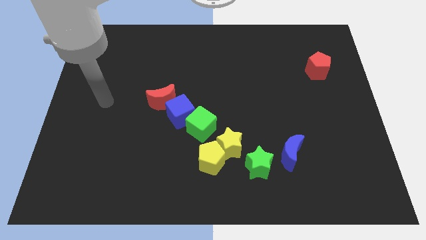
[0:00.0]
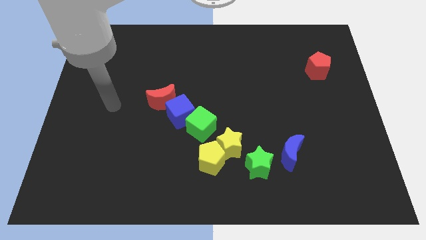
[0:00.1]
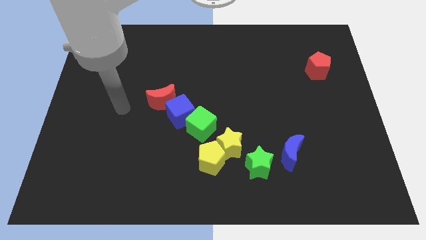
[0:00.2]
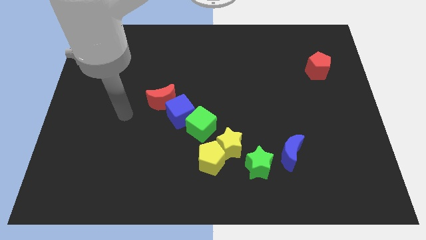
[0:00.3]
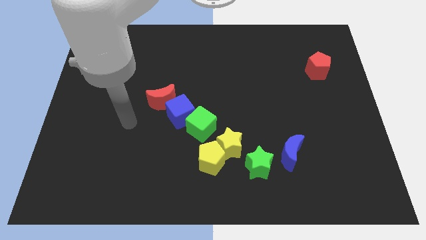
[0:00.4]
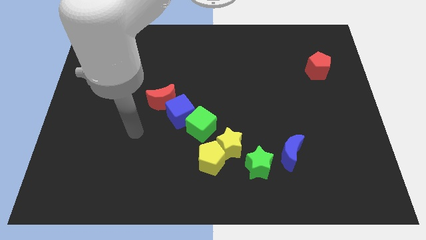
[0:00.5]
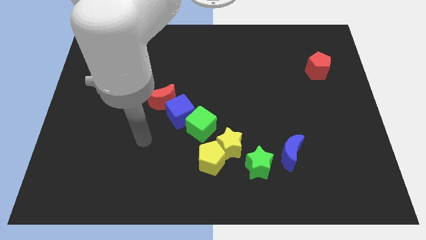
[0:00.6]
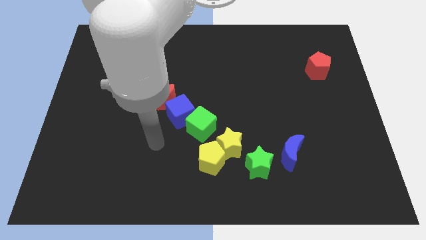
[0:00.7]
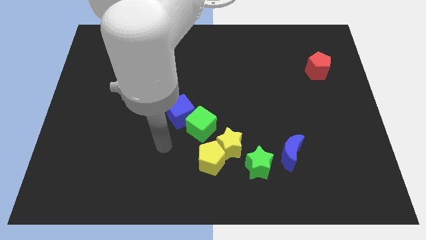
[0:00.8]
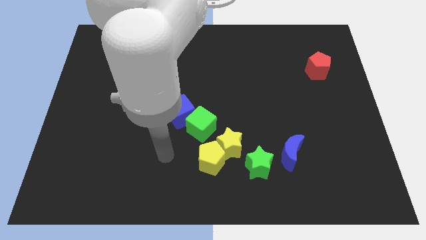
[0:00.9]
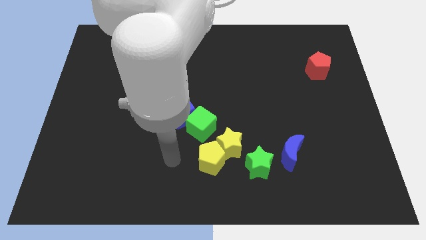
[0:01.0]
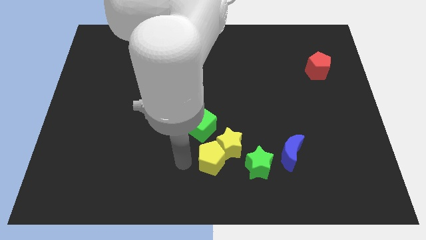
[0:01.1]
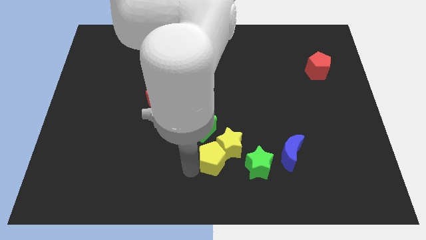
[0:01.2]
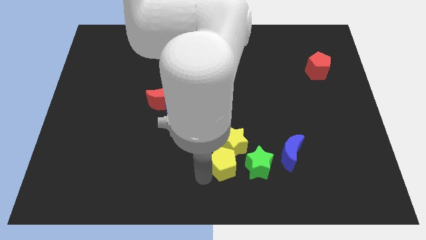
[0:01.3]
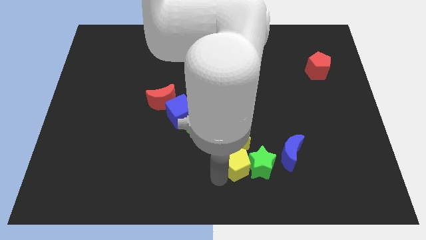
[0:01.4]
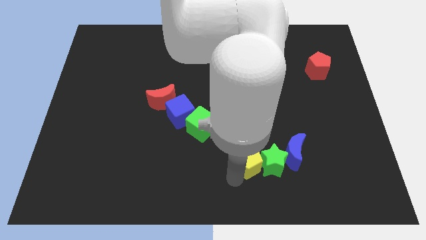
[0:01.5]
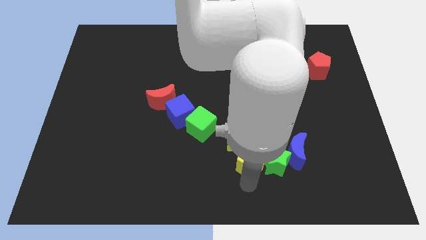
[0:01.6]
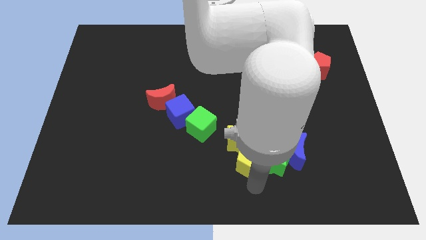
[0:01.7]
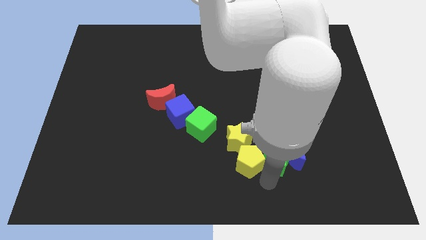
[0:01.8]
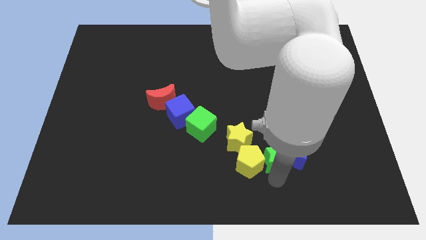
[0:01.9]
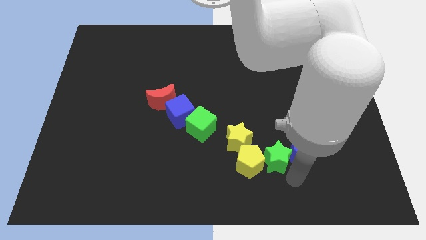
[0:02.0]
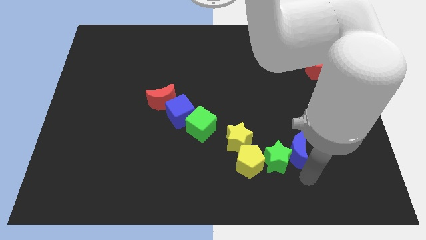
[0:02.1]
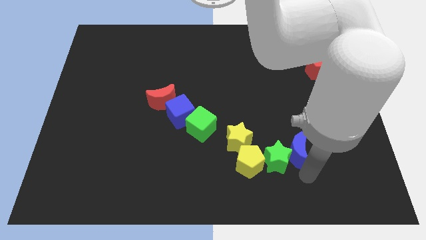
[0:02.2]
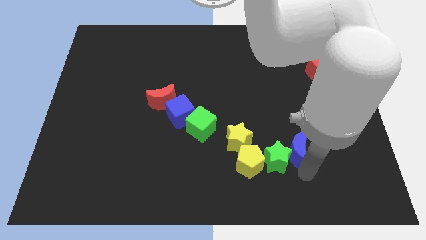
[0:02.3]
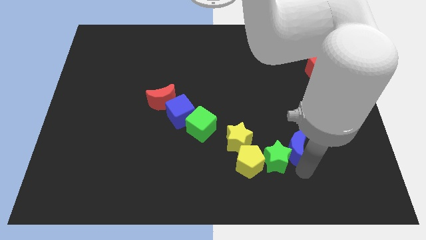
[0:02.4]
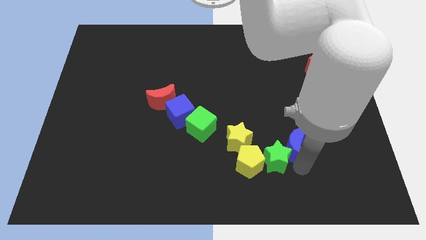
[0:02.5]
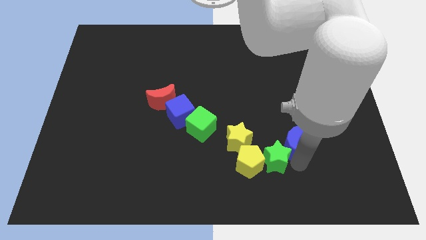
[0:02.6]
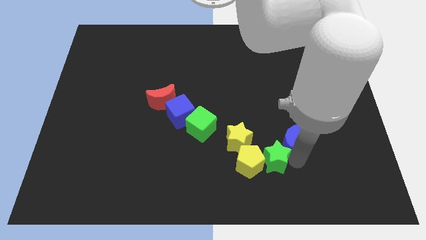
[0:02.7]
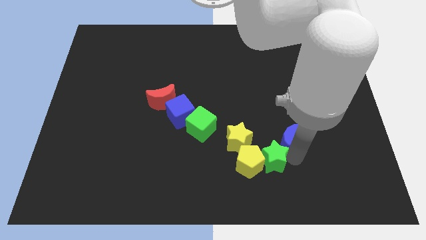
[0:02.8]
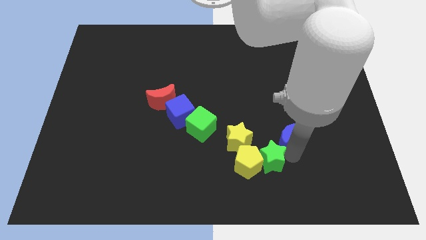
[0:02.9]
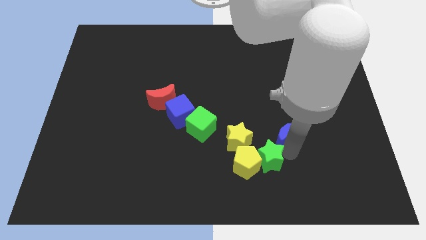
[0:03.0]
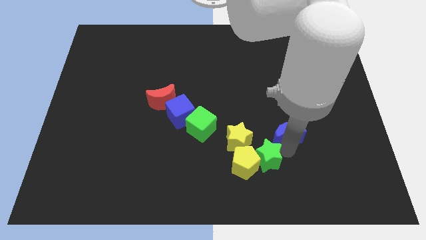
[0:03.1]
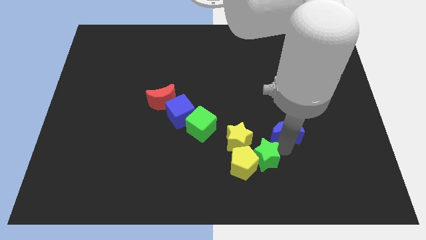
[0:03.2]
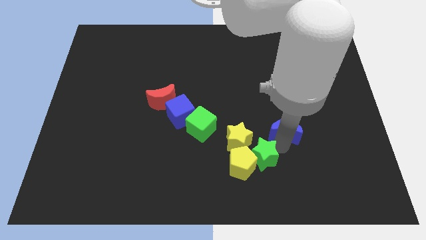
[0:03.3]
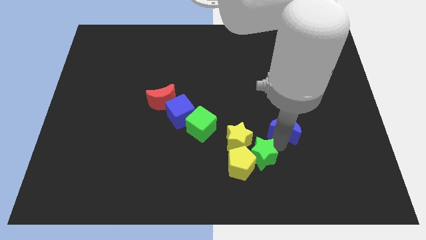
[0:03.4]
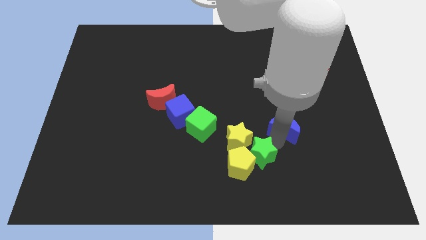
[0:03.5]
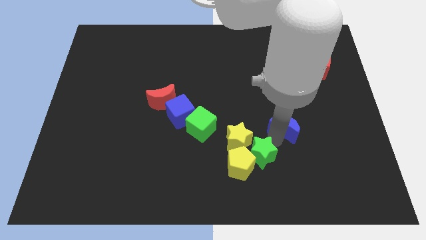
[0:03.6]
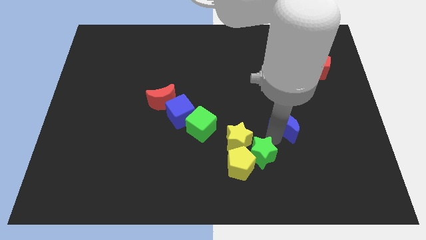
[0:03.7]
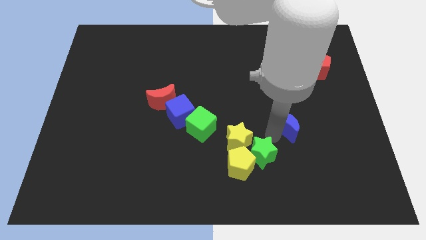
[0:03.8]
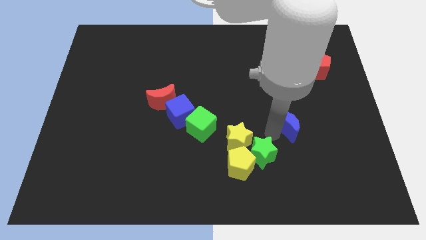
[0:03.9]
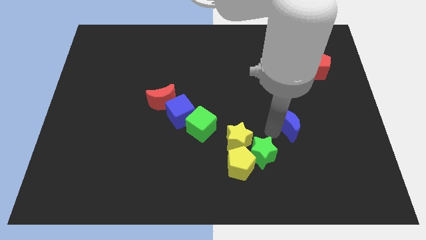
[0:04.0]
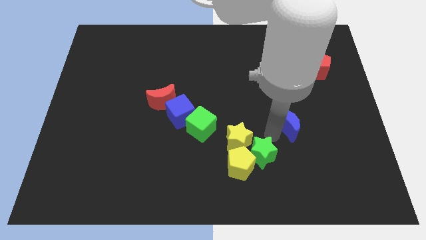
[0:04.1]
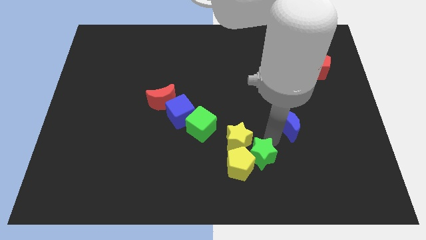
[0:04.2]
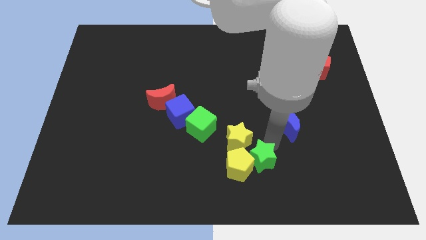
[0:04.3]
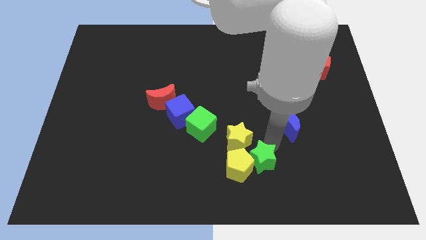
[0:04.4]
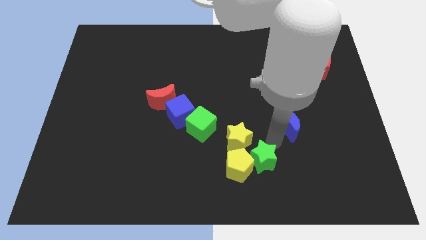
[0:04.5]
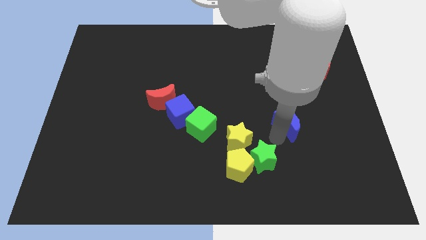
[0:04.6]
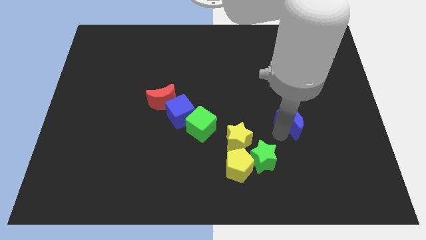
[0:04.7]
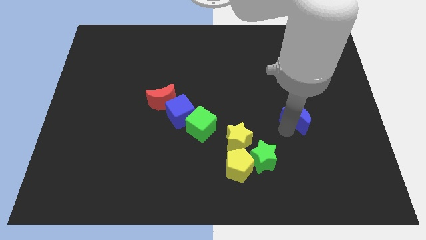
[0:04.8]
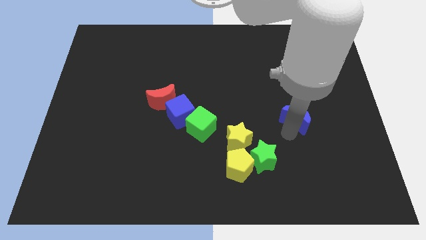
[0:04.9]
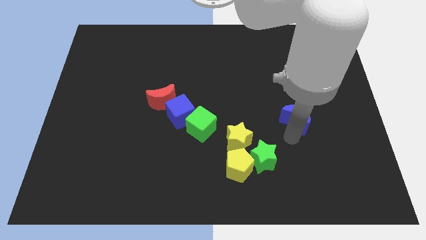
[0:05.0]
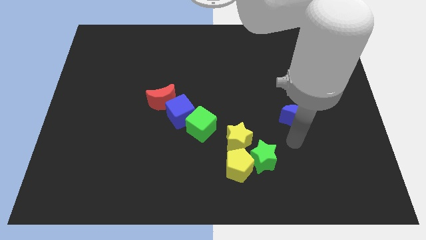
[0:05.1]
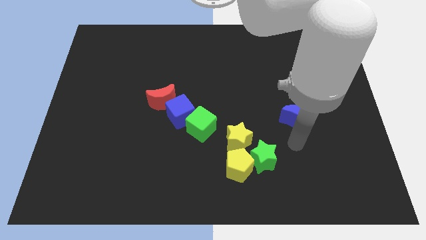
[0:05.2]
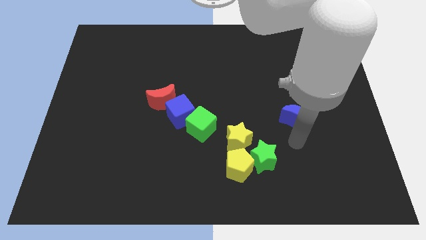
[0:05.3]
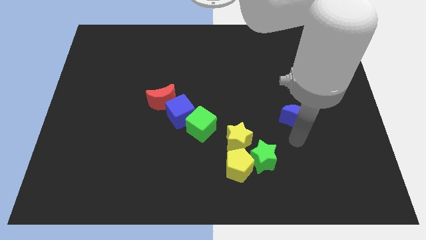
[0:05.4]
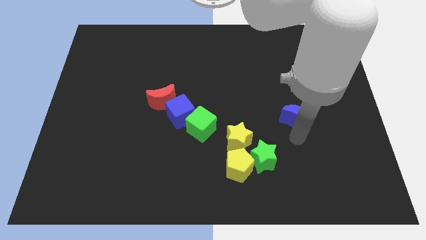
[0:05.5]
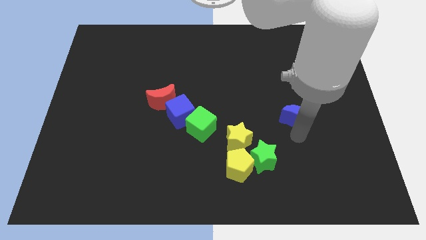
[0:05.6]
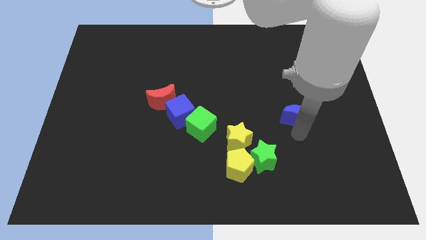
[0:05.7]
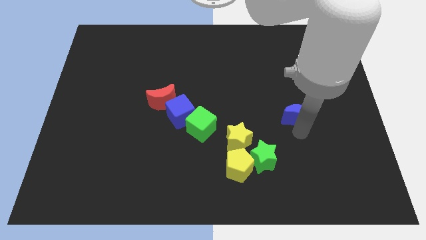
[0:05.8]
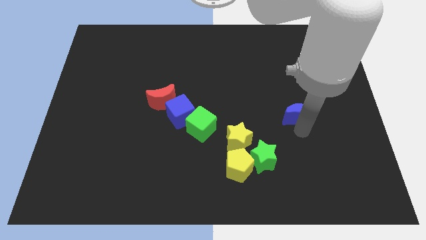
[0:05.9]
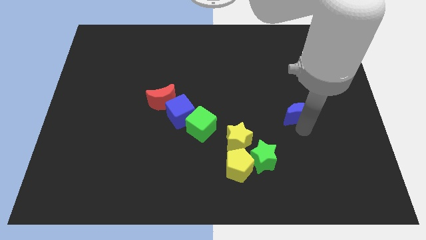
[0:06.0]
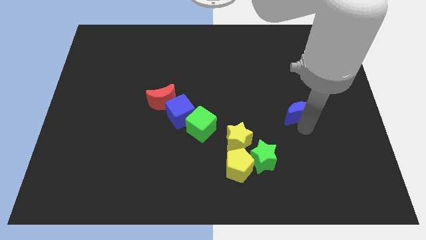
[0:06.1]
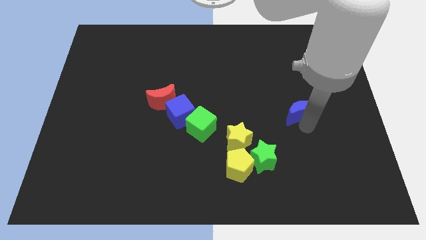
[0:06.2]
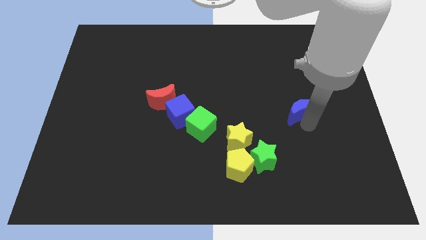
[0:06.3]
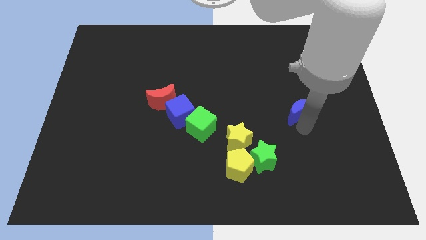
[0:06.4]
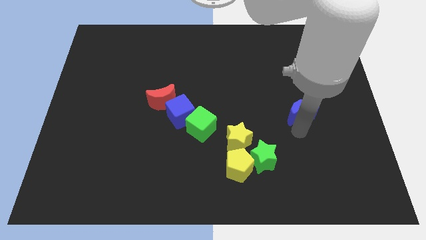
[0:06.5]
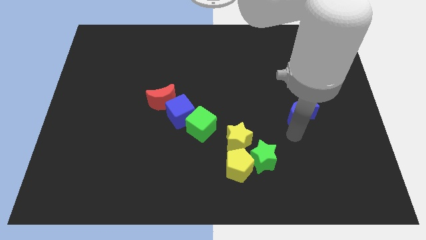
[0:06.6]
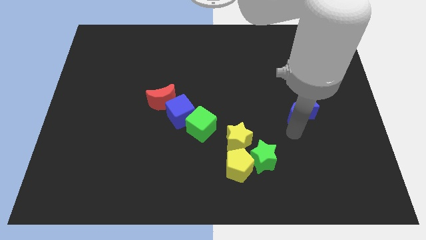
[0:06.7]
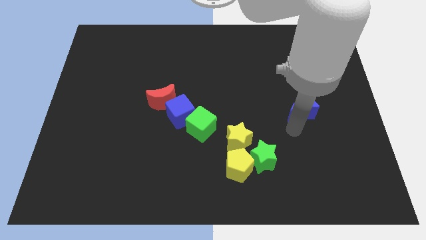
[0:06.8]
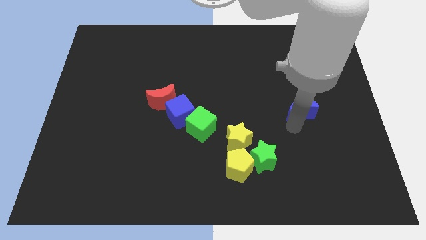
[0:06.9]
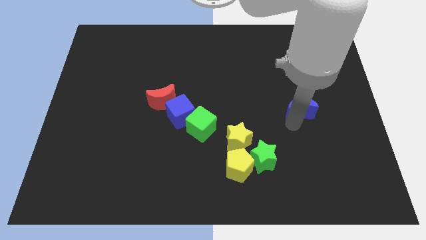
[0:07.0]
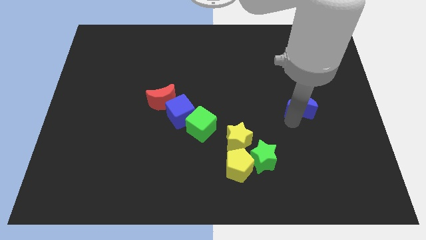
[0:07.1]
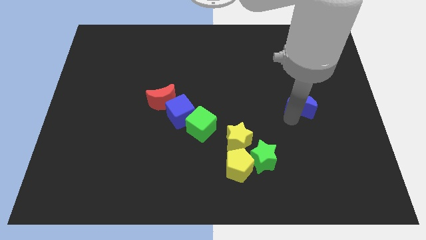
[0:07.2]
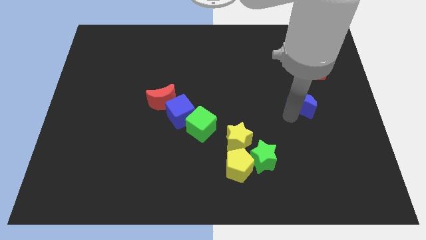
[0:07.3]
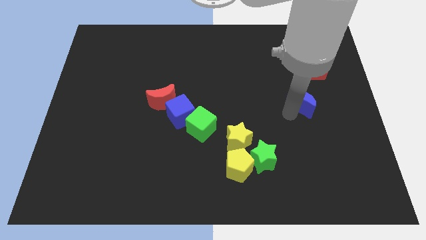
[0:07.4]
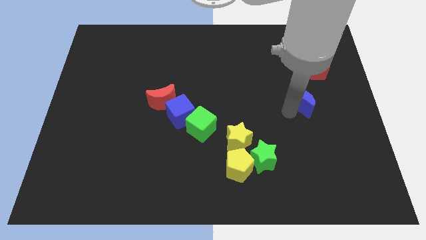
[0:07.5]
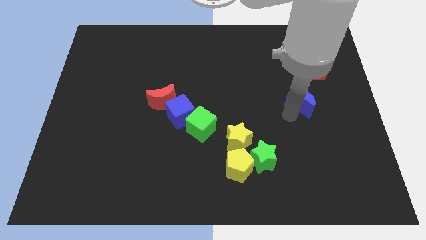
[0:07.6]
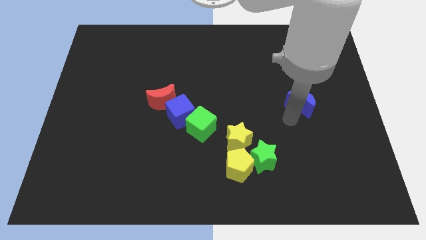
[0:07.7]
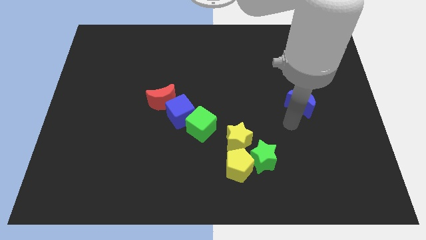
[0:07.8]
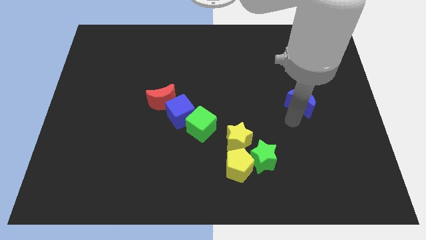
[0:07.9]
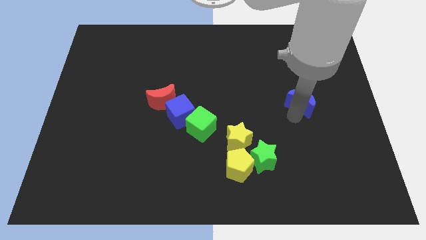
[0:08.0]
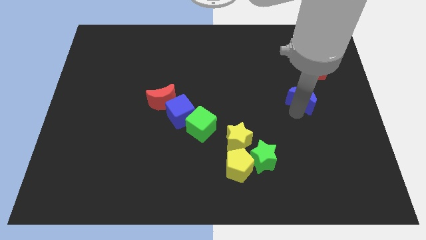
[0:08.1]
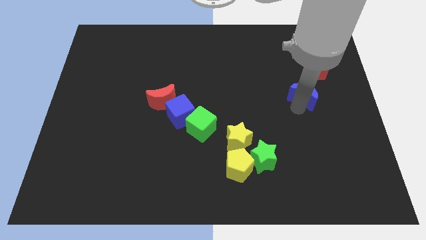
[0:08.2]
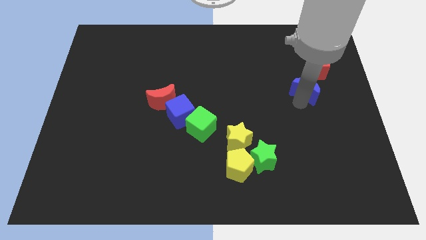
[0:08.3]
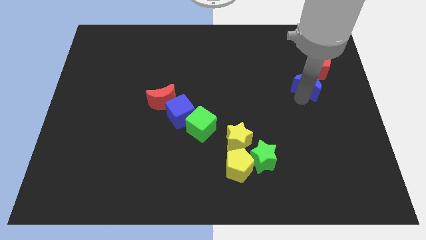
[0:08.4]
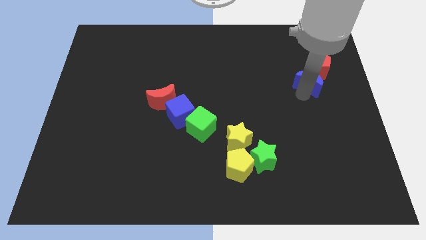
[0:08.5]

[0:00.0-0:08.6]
put the blue moon close to the red pentagon
